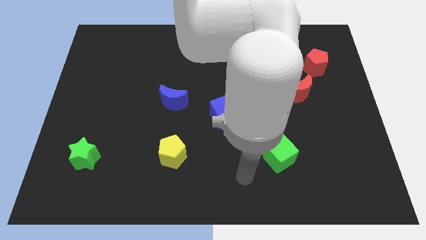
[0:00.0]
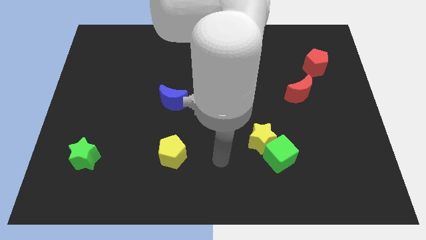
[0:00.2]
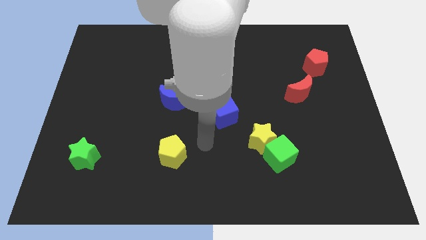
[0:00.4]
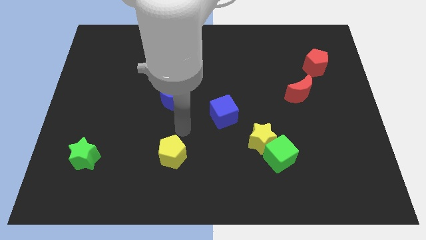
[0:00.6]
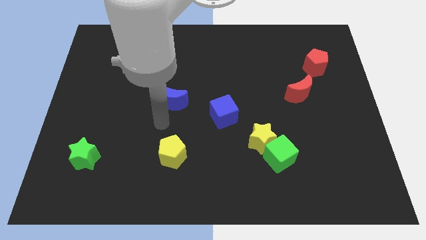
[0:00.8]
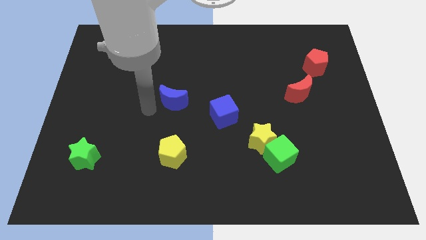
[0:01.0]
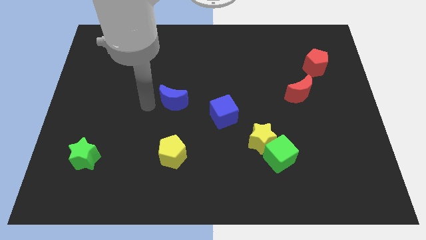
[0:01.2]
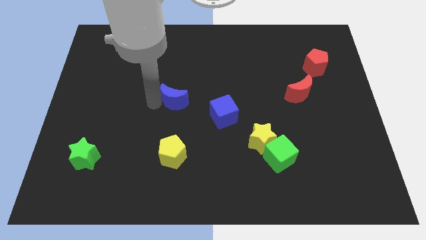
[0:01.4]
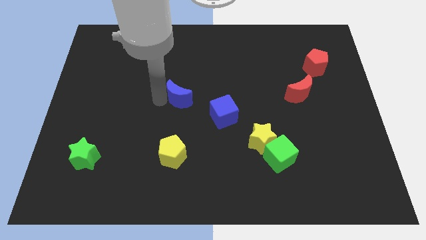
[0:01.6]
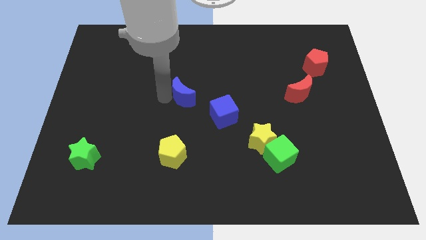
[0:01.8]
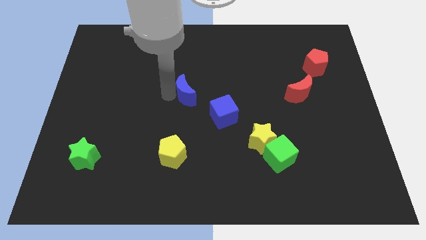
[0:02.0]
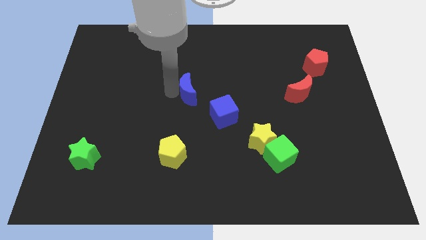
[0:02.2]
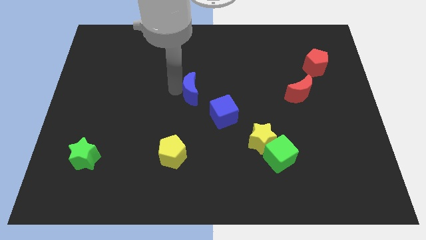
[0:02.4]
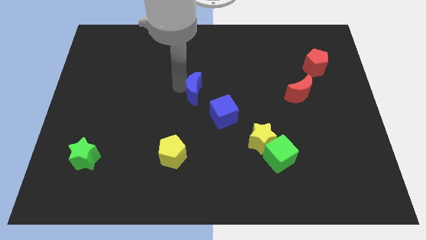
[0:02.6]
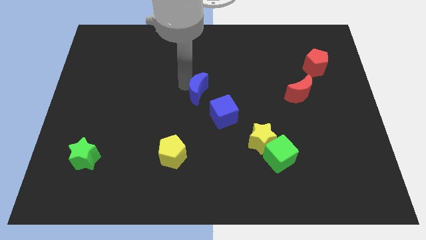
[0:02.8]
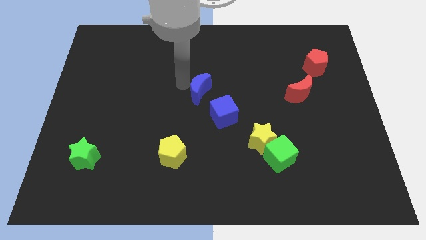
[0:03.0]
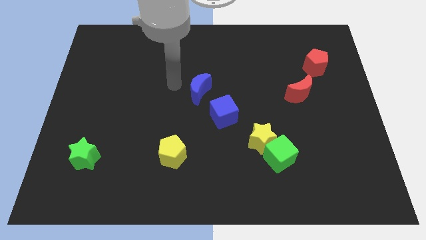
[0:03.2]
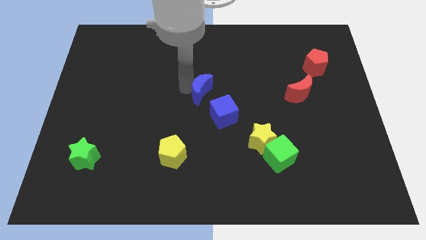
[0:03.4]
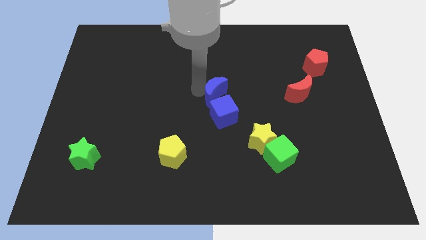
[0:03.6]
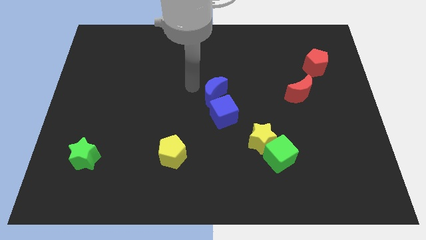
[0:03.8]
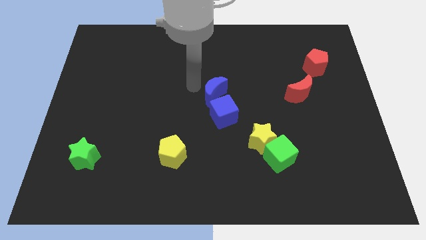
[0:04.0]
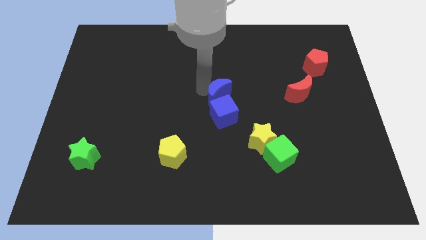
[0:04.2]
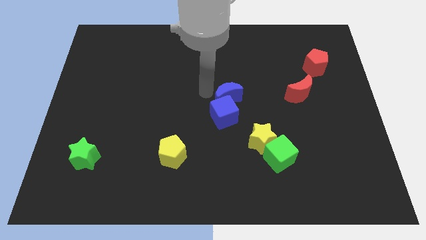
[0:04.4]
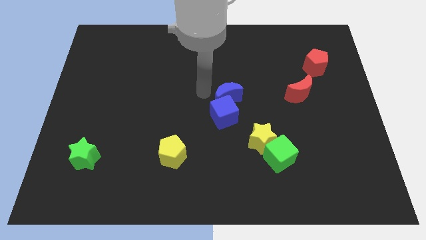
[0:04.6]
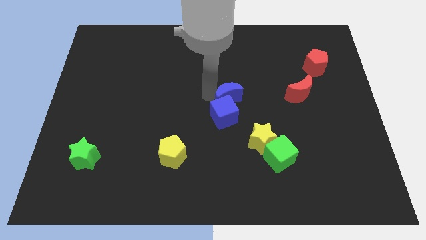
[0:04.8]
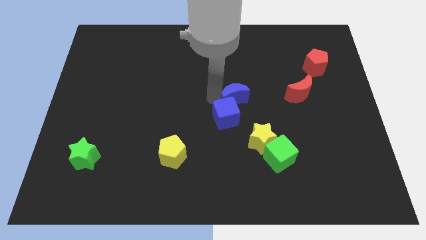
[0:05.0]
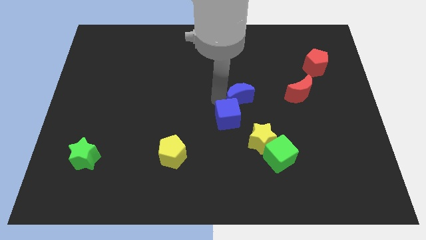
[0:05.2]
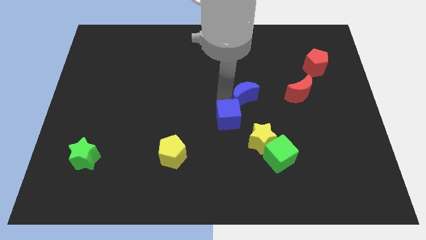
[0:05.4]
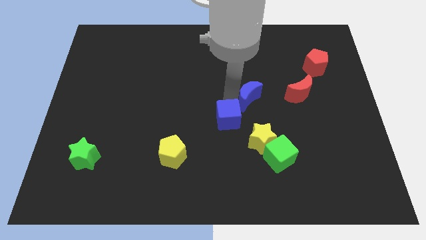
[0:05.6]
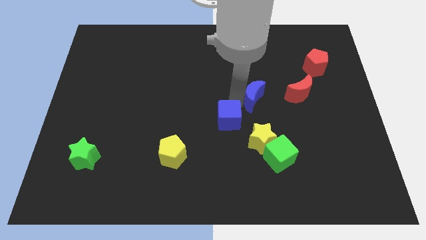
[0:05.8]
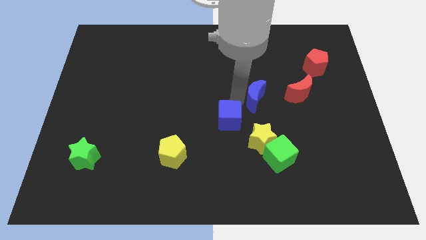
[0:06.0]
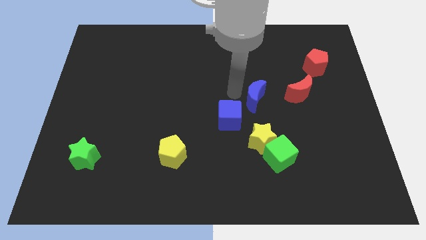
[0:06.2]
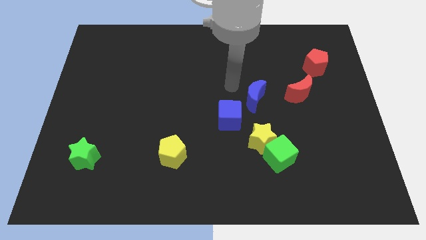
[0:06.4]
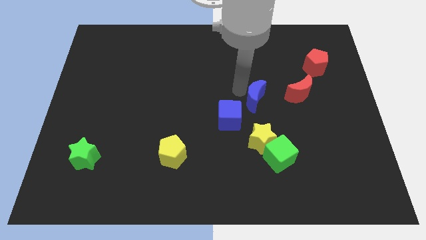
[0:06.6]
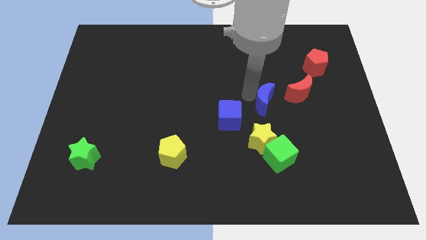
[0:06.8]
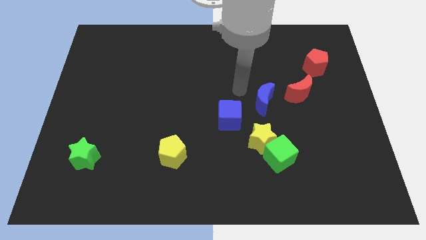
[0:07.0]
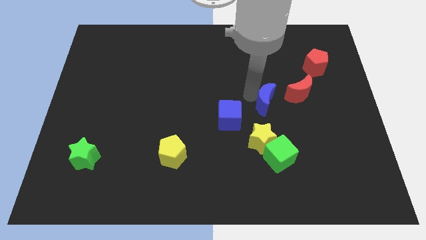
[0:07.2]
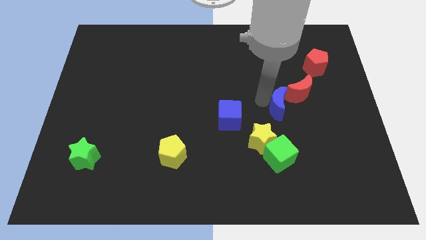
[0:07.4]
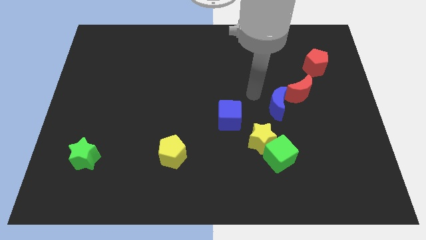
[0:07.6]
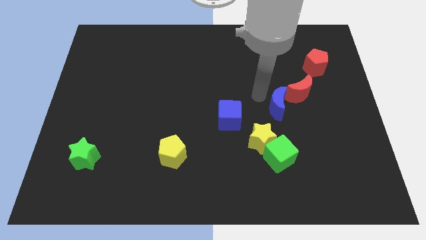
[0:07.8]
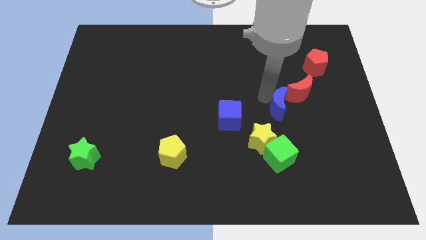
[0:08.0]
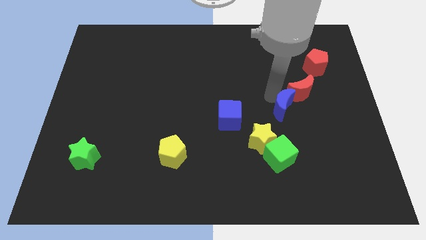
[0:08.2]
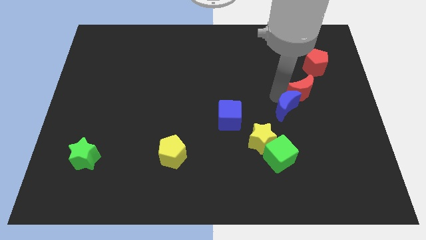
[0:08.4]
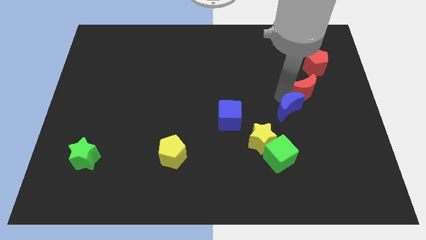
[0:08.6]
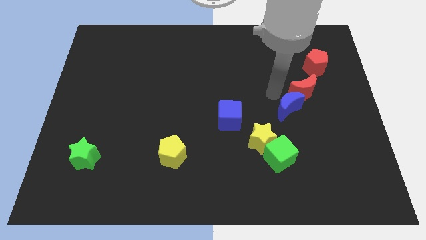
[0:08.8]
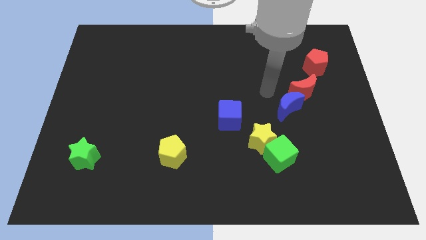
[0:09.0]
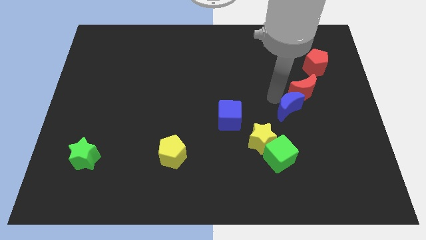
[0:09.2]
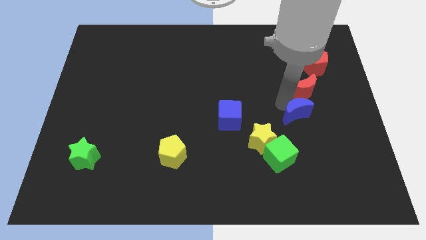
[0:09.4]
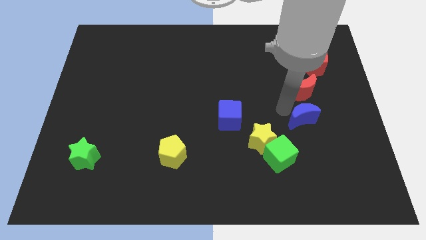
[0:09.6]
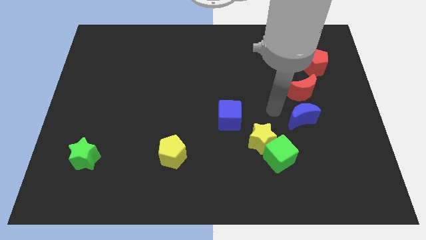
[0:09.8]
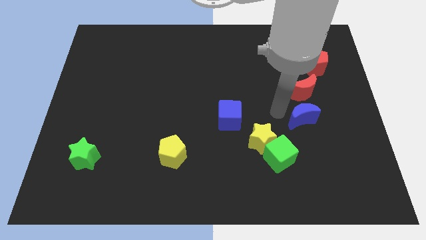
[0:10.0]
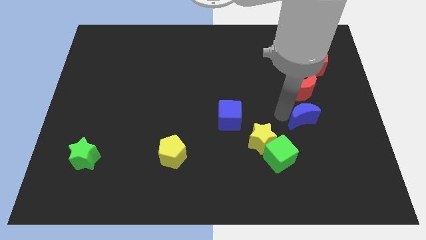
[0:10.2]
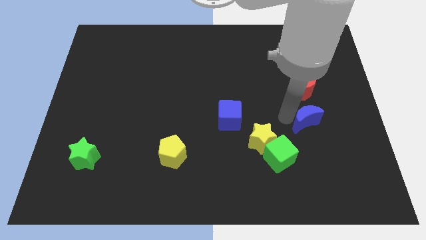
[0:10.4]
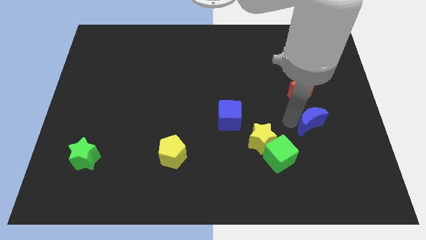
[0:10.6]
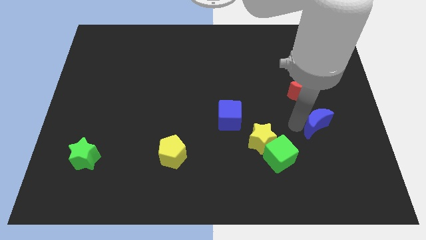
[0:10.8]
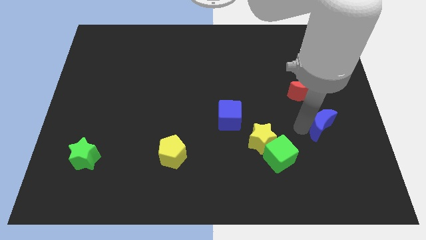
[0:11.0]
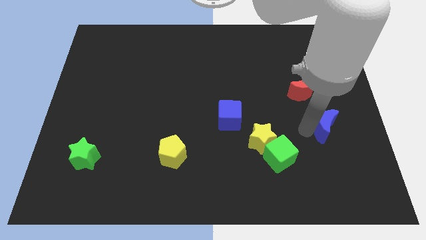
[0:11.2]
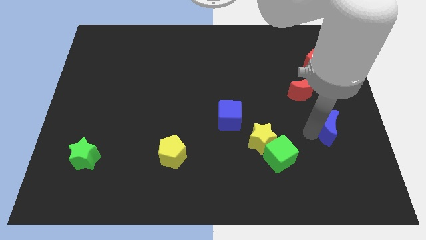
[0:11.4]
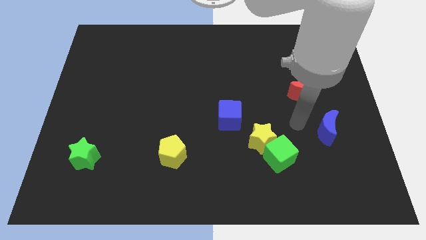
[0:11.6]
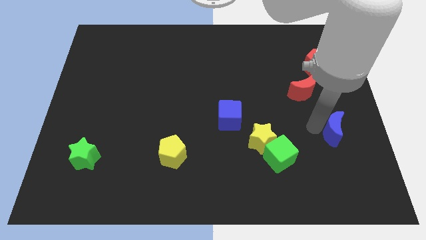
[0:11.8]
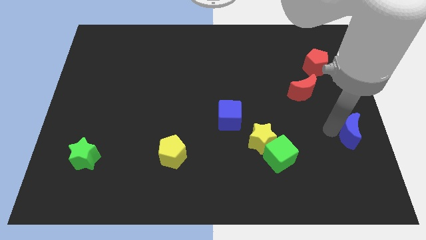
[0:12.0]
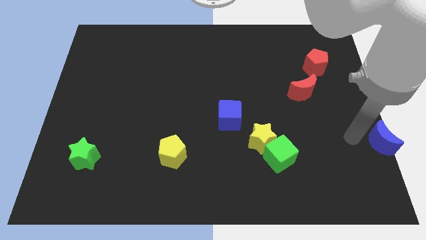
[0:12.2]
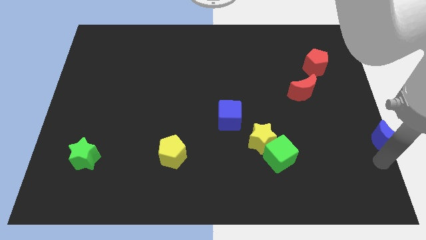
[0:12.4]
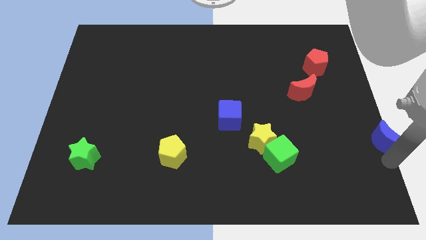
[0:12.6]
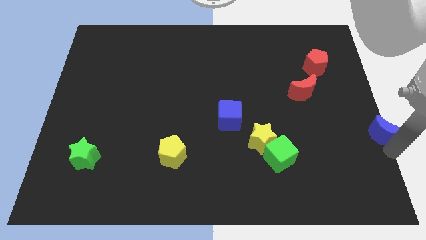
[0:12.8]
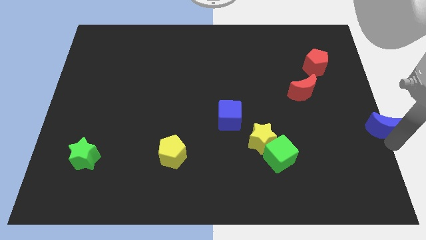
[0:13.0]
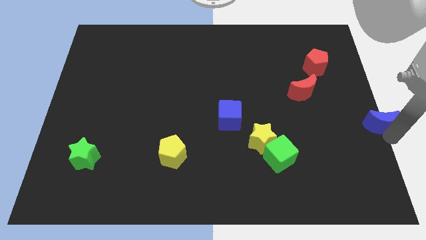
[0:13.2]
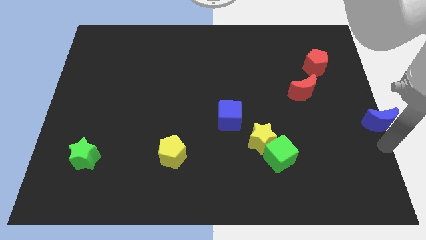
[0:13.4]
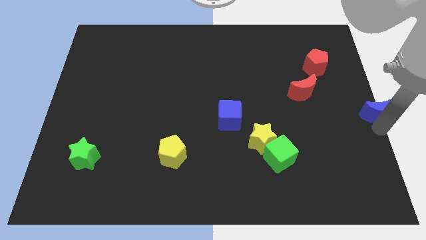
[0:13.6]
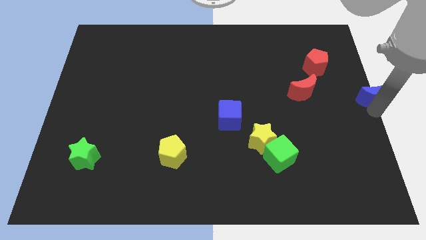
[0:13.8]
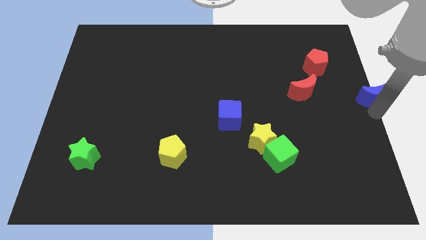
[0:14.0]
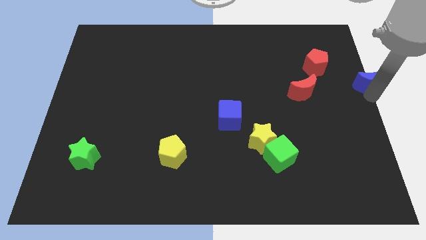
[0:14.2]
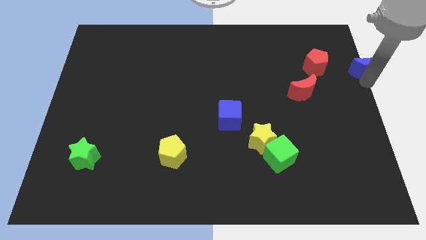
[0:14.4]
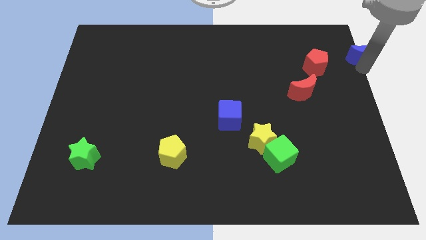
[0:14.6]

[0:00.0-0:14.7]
put the blue moon to the upper right corner
